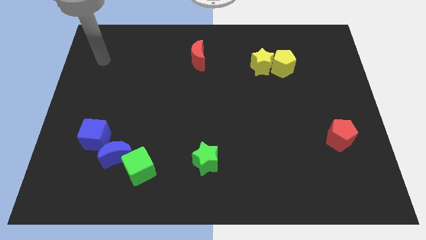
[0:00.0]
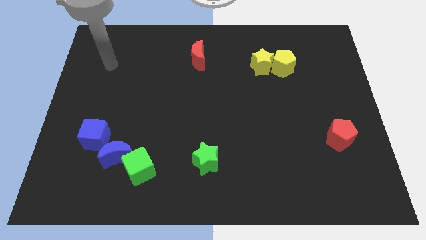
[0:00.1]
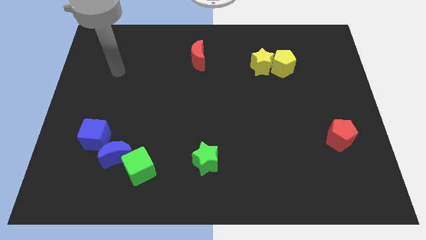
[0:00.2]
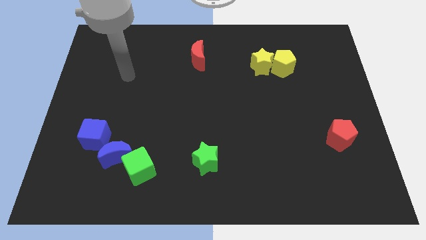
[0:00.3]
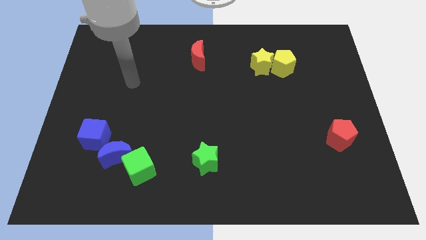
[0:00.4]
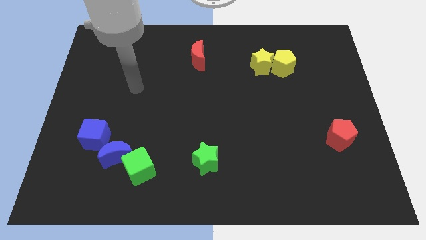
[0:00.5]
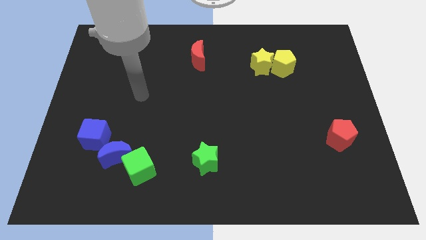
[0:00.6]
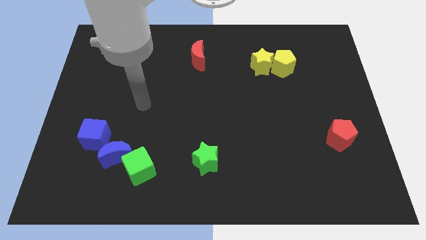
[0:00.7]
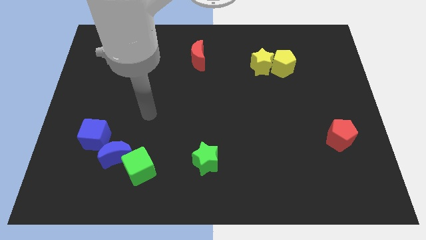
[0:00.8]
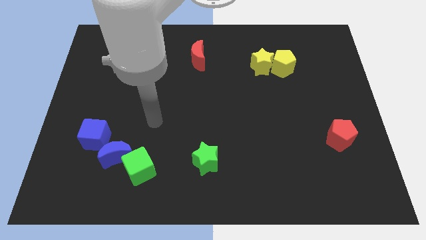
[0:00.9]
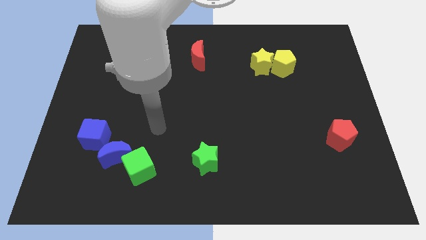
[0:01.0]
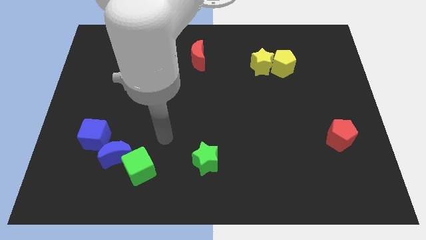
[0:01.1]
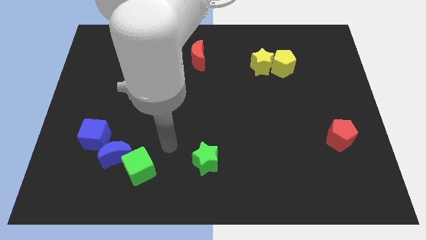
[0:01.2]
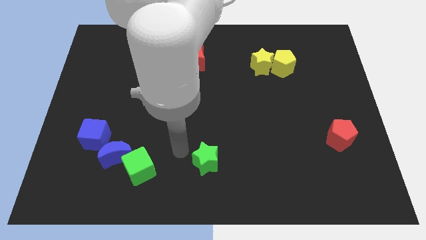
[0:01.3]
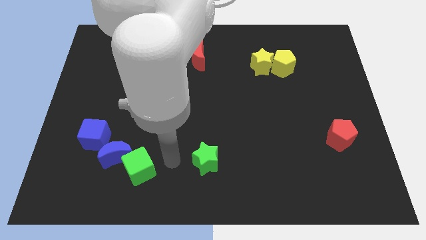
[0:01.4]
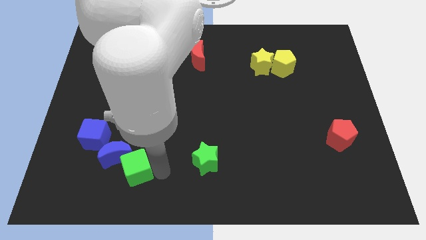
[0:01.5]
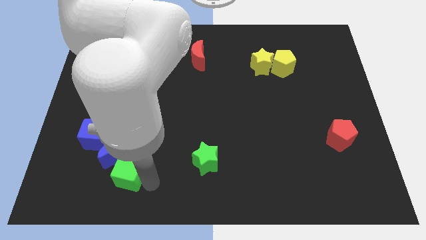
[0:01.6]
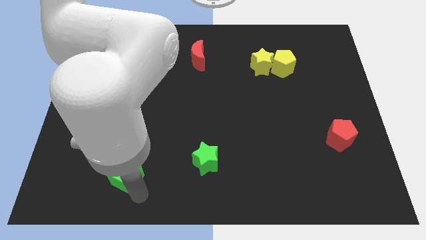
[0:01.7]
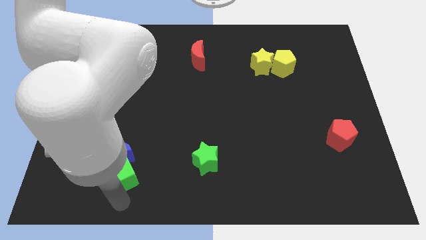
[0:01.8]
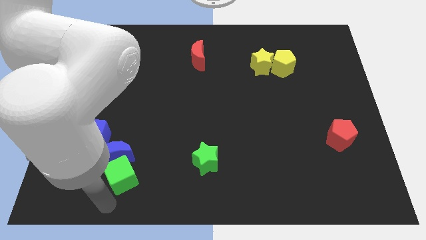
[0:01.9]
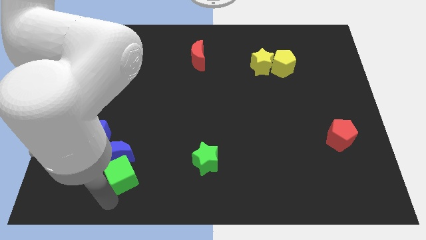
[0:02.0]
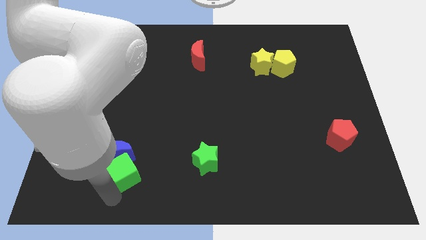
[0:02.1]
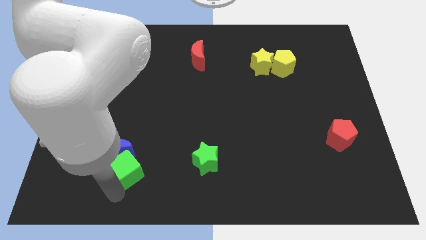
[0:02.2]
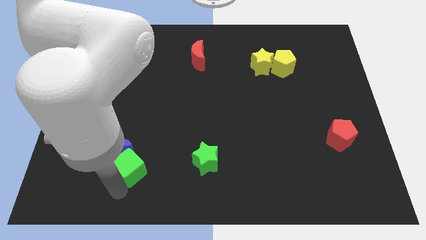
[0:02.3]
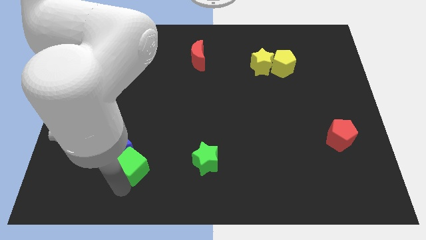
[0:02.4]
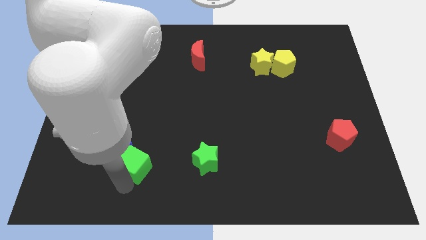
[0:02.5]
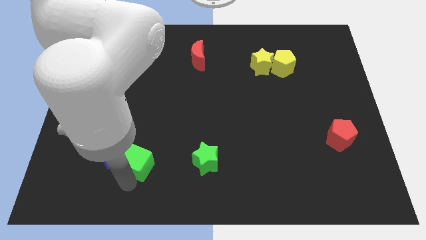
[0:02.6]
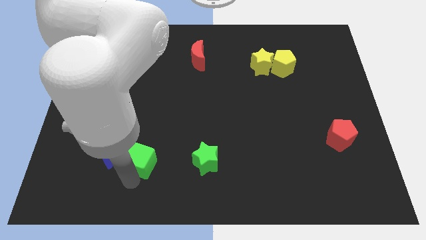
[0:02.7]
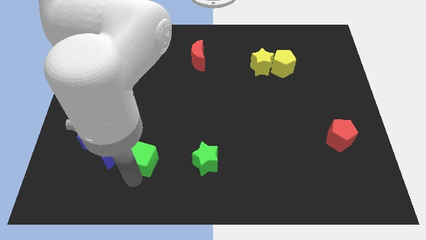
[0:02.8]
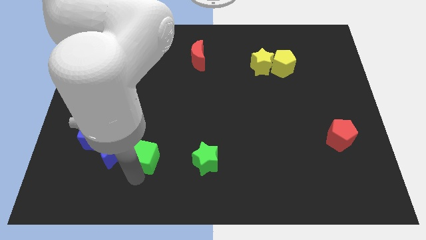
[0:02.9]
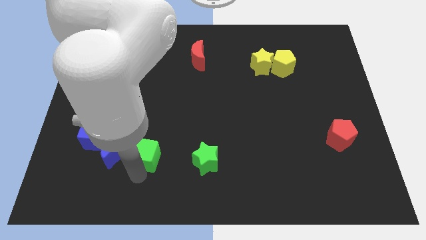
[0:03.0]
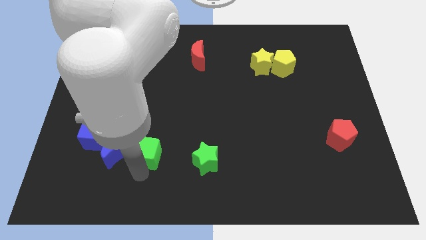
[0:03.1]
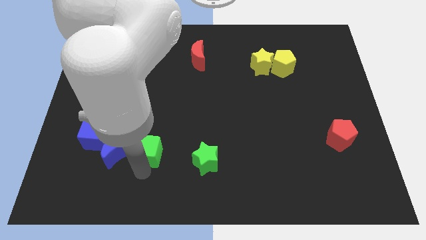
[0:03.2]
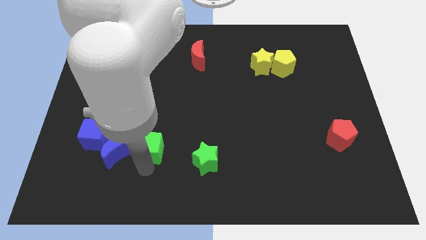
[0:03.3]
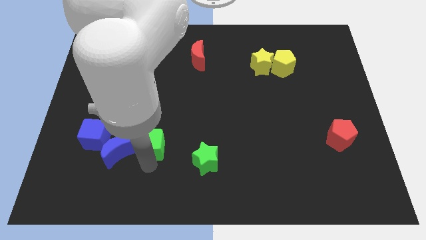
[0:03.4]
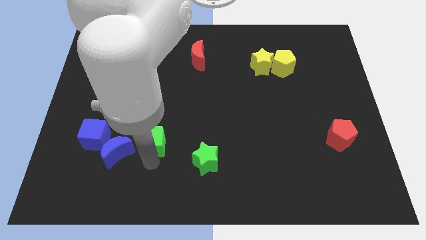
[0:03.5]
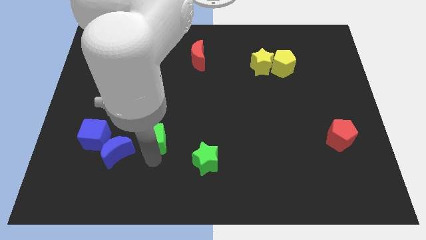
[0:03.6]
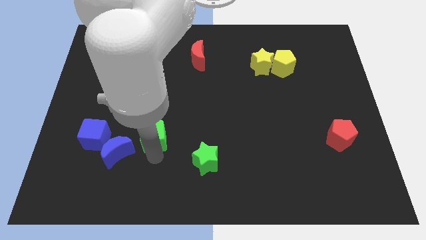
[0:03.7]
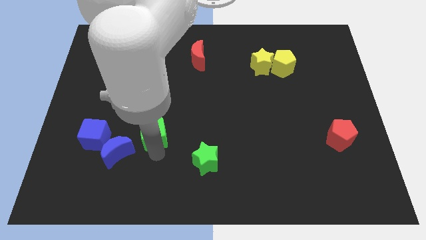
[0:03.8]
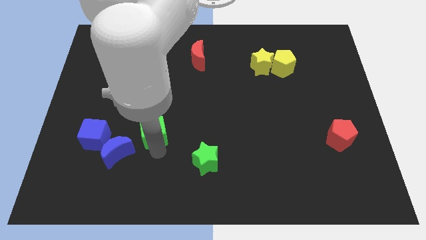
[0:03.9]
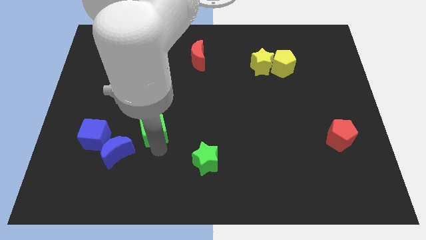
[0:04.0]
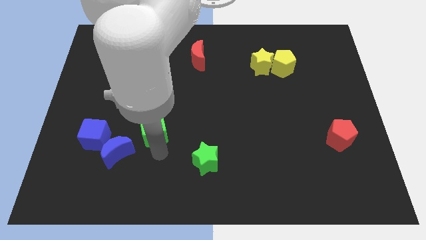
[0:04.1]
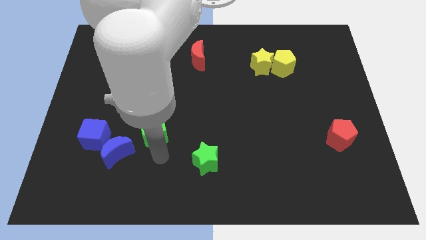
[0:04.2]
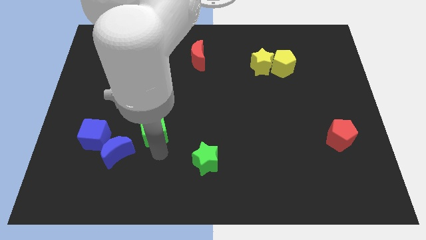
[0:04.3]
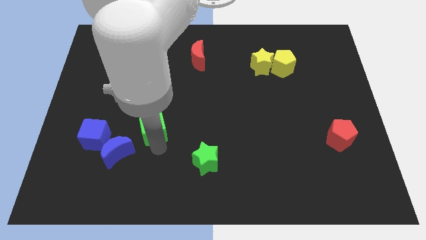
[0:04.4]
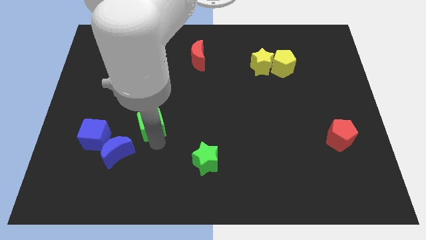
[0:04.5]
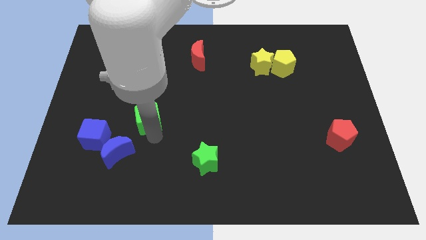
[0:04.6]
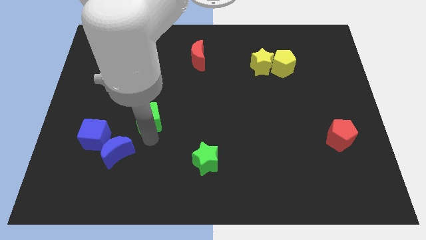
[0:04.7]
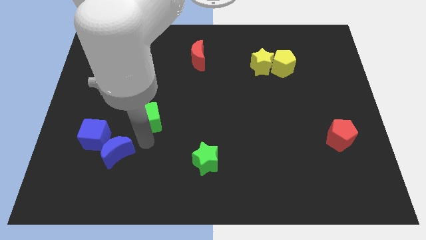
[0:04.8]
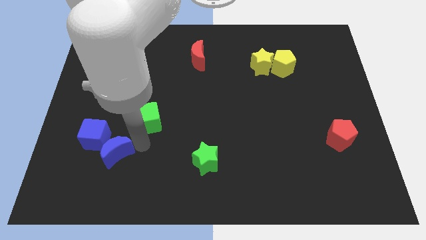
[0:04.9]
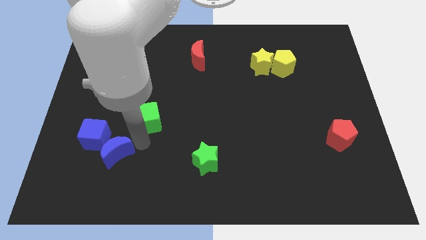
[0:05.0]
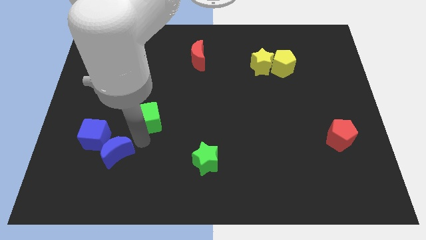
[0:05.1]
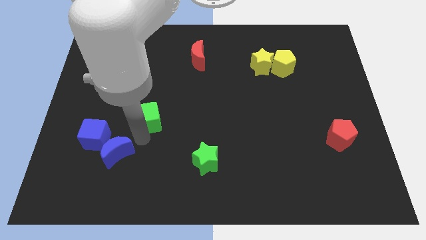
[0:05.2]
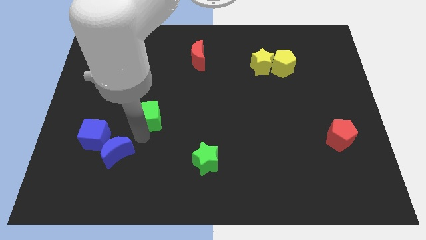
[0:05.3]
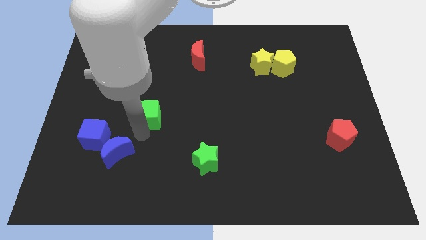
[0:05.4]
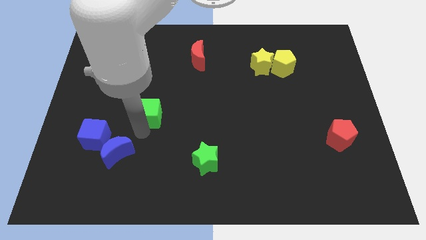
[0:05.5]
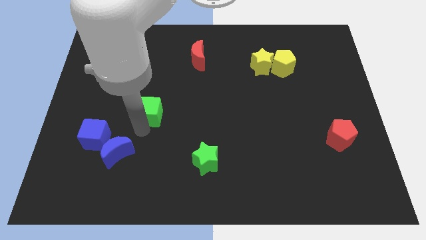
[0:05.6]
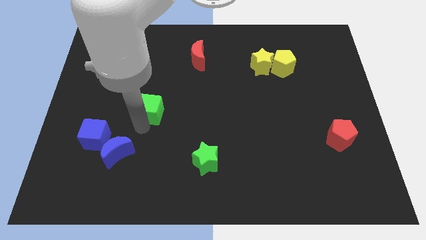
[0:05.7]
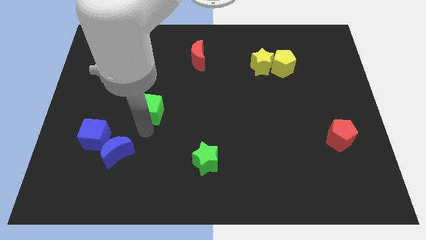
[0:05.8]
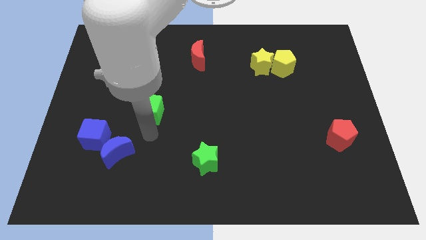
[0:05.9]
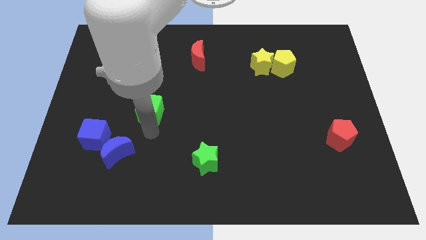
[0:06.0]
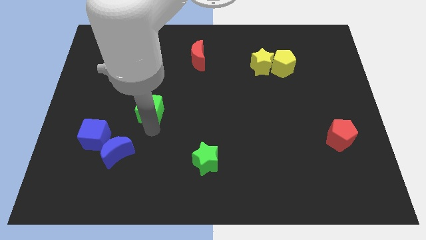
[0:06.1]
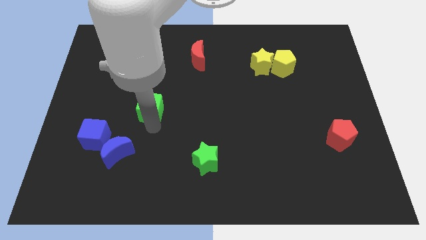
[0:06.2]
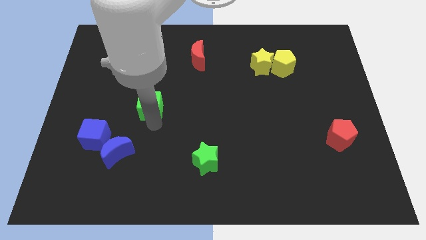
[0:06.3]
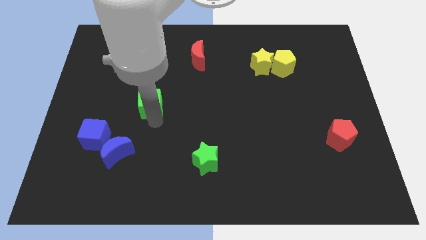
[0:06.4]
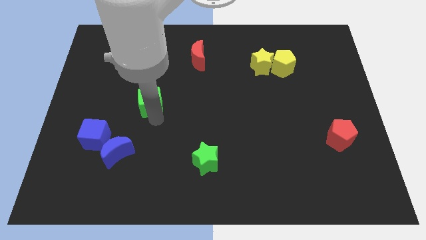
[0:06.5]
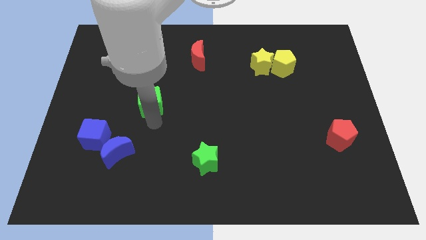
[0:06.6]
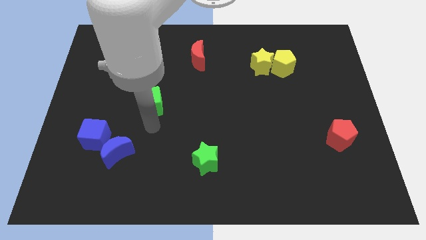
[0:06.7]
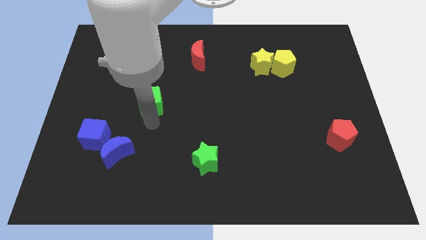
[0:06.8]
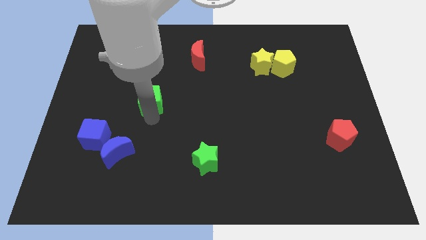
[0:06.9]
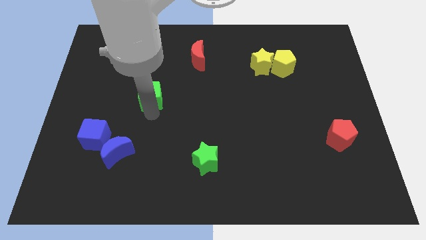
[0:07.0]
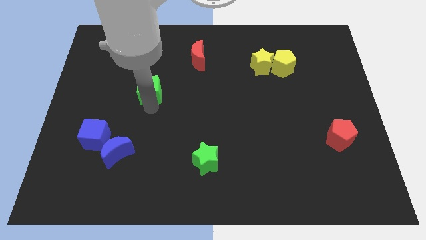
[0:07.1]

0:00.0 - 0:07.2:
move the green cube upwards

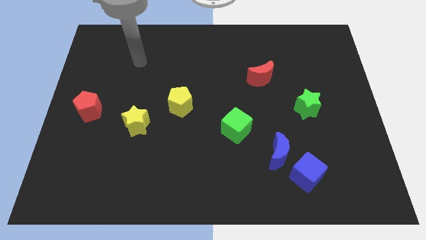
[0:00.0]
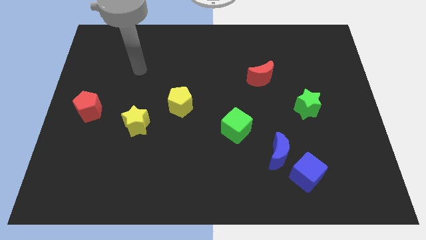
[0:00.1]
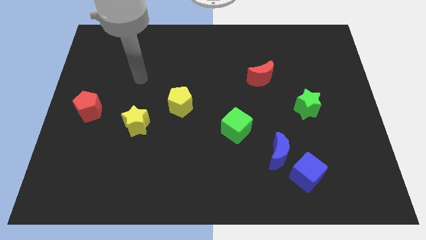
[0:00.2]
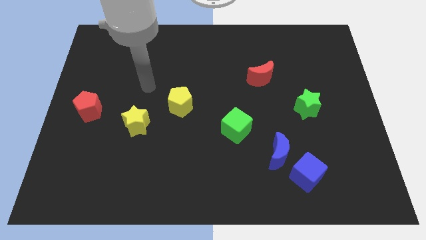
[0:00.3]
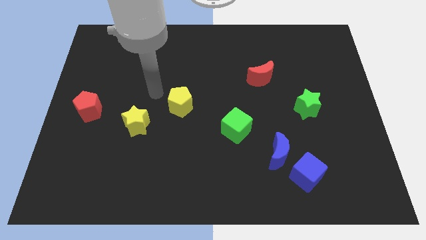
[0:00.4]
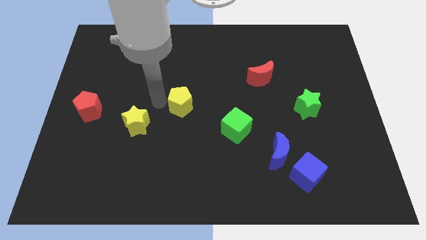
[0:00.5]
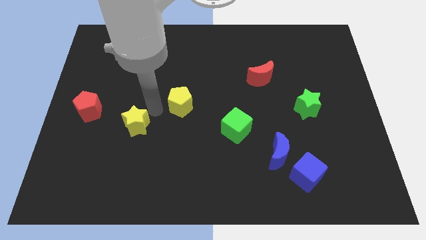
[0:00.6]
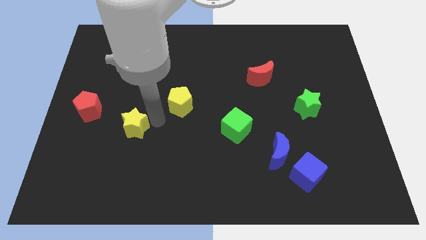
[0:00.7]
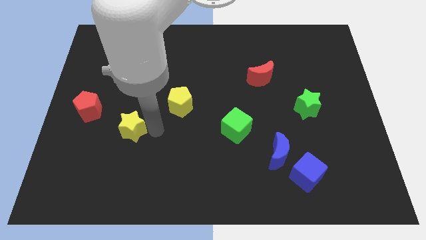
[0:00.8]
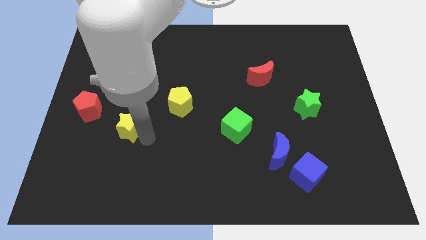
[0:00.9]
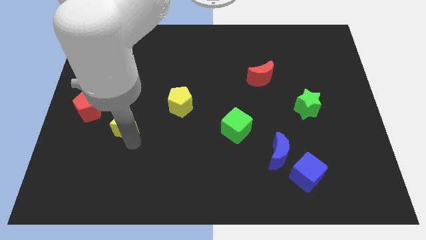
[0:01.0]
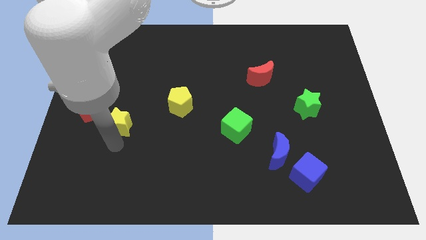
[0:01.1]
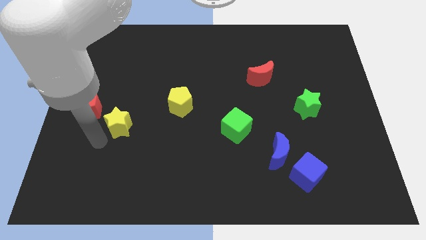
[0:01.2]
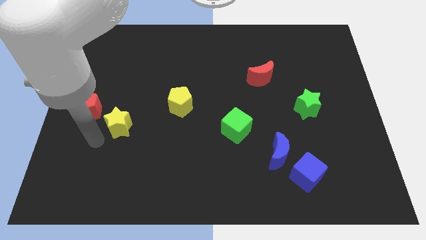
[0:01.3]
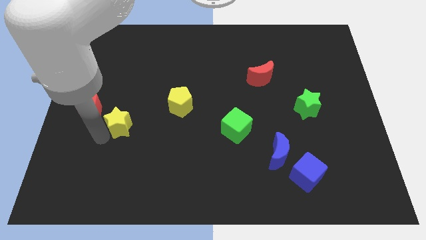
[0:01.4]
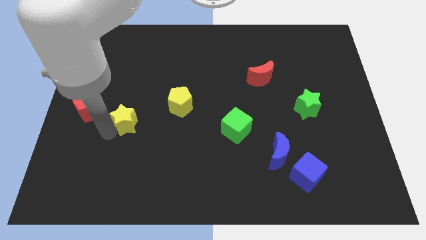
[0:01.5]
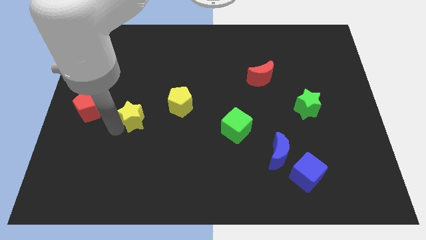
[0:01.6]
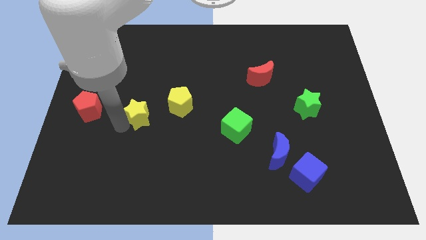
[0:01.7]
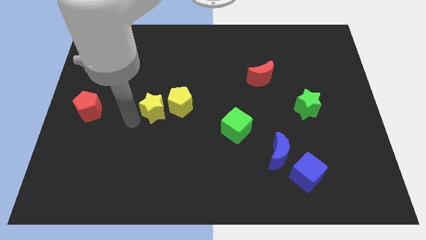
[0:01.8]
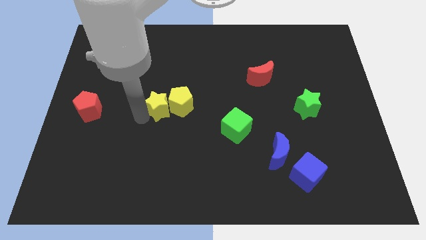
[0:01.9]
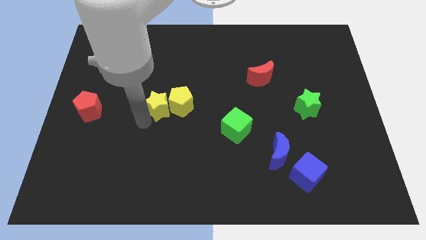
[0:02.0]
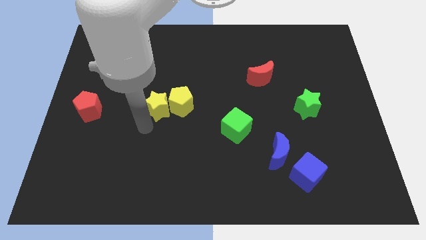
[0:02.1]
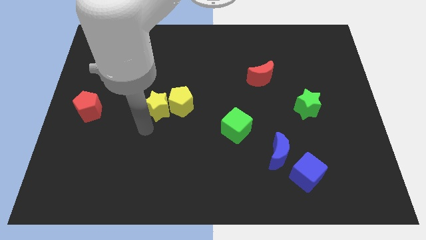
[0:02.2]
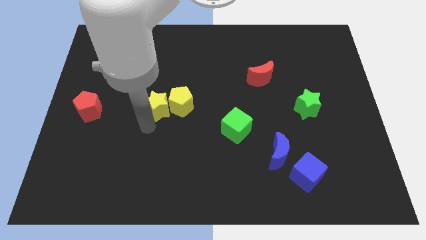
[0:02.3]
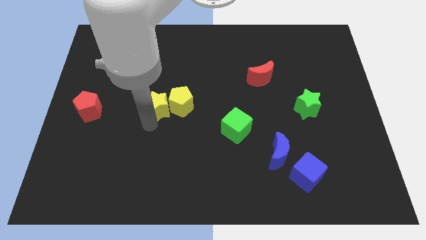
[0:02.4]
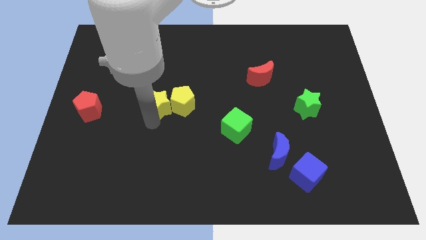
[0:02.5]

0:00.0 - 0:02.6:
slightly slide the yellow star upwards and then right
